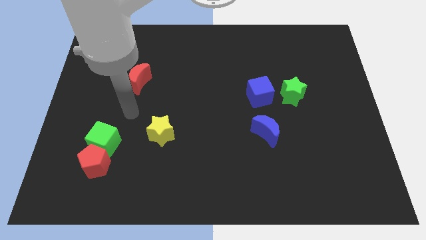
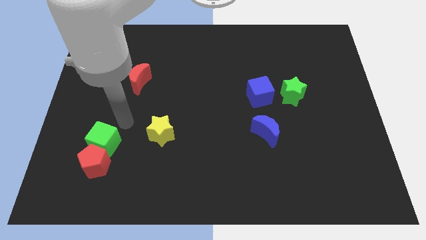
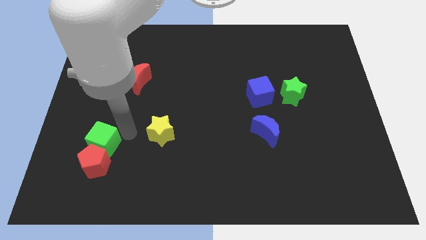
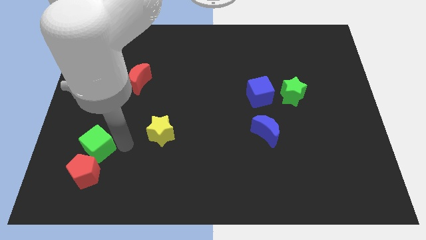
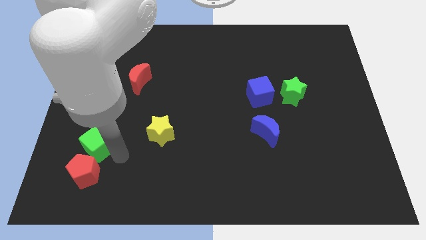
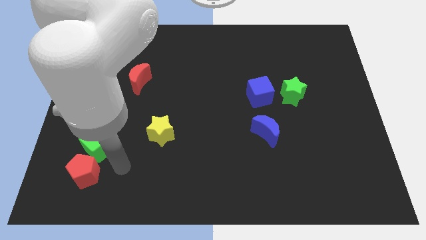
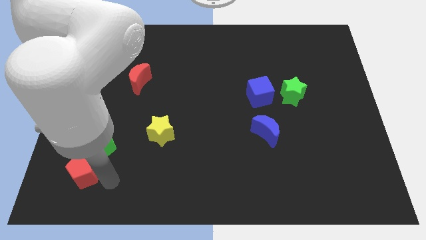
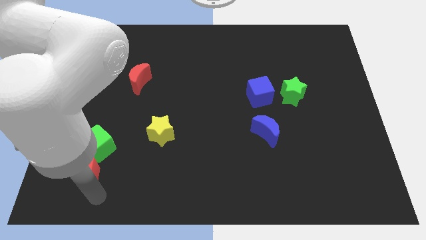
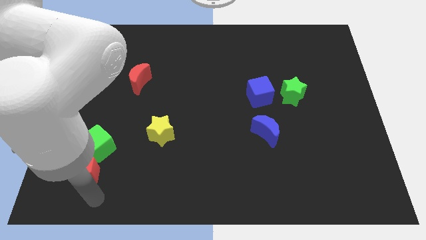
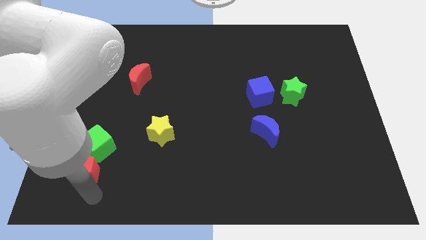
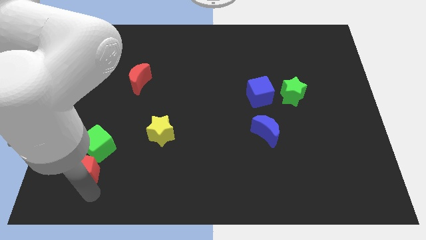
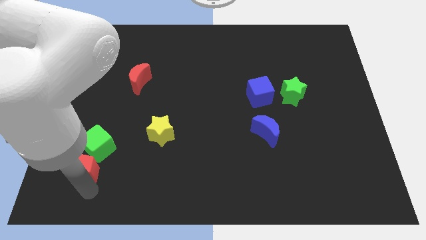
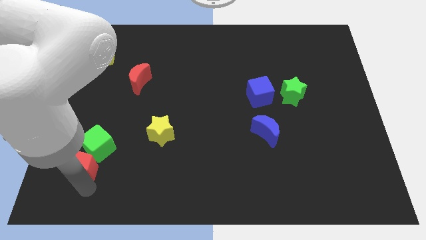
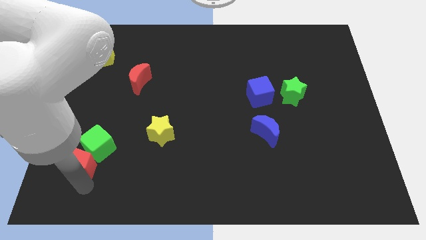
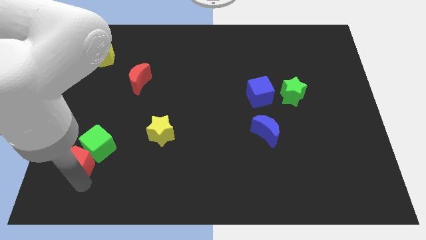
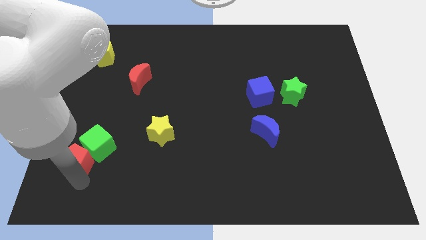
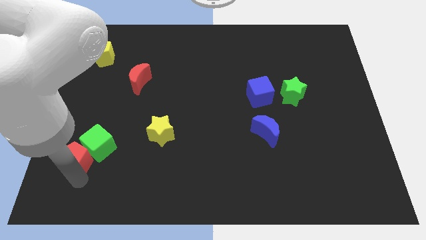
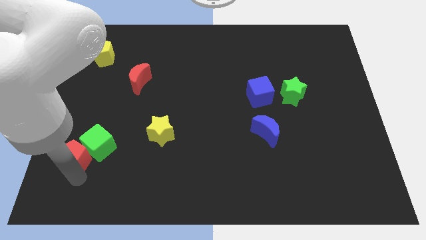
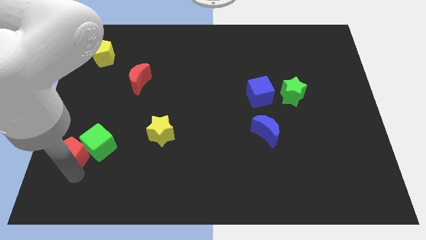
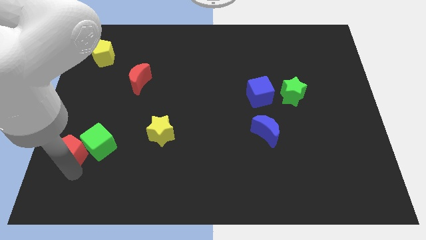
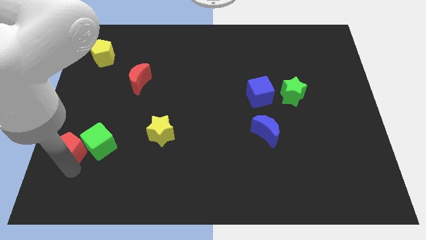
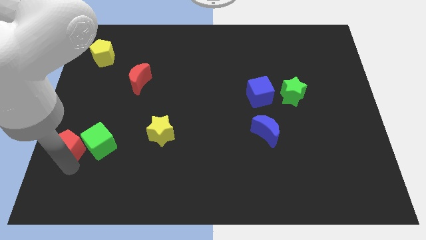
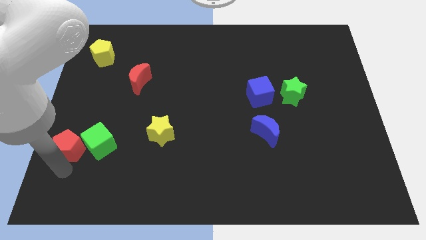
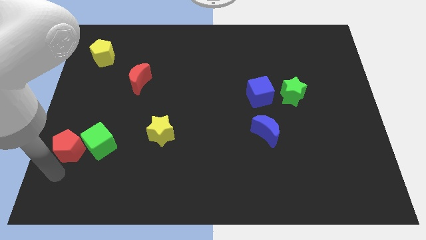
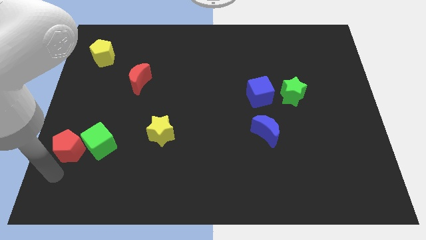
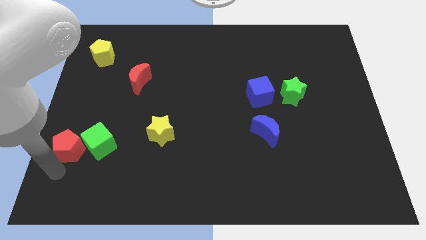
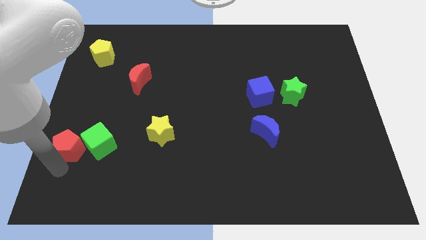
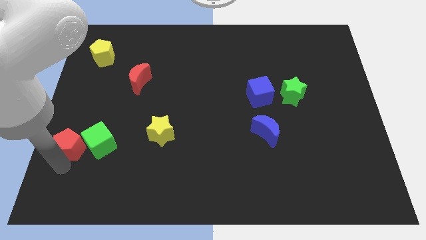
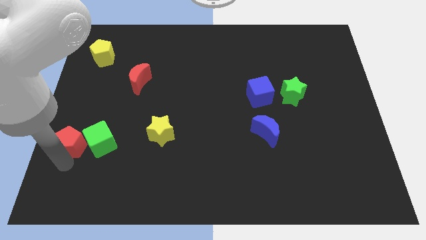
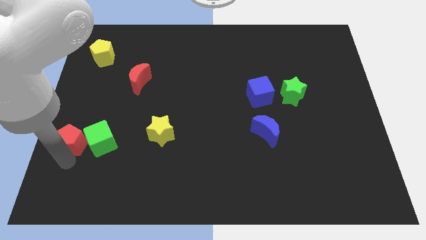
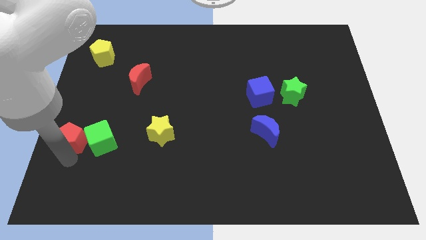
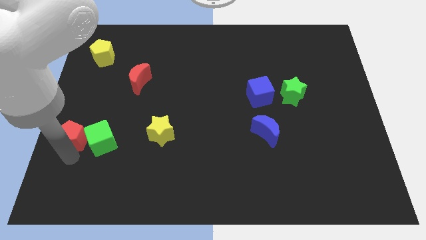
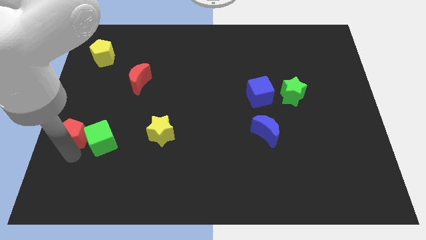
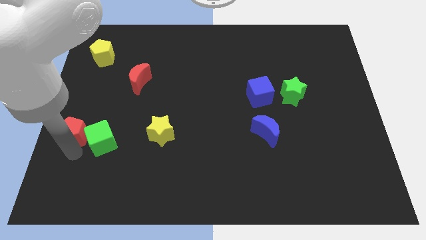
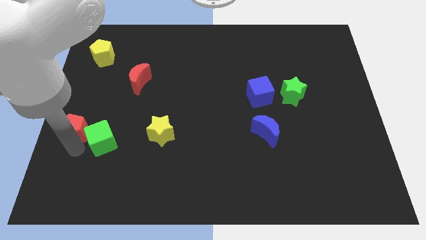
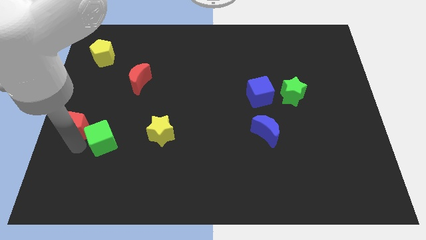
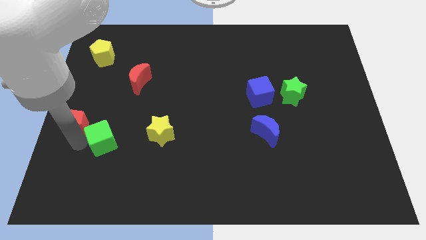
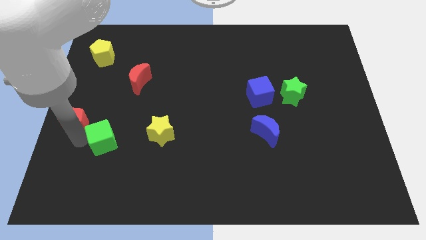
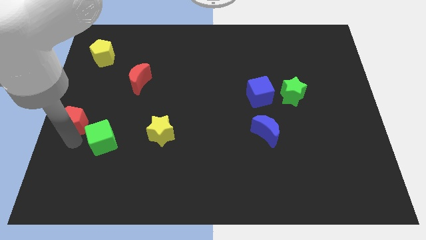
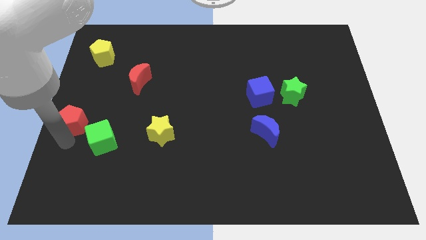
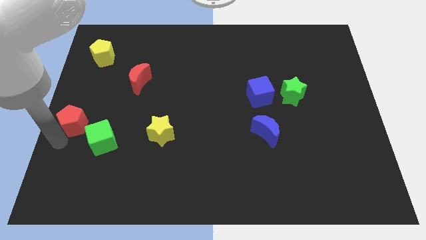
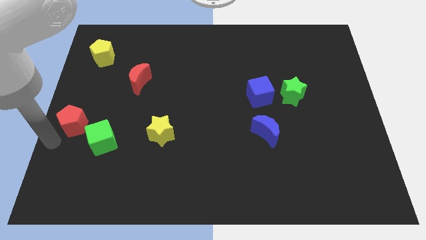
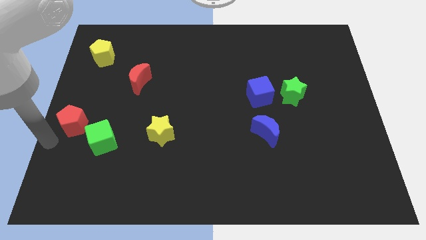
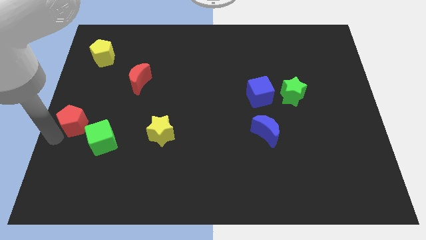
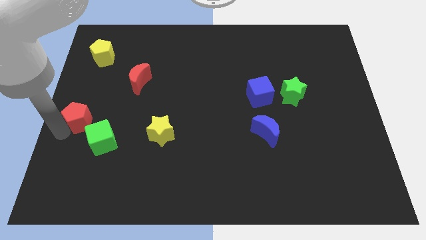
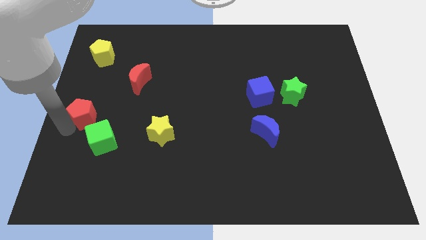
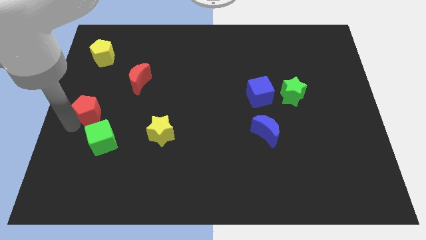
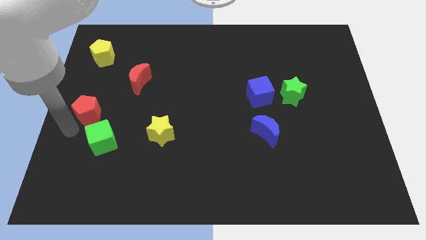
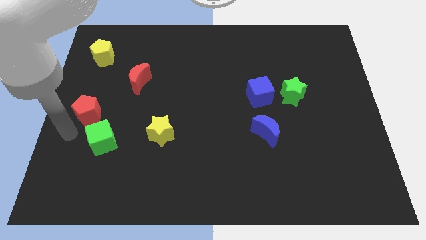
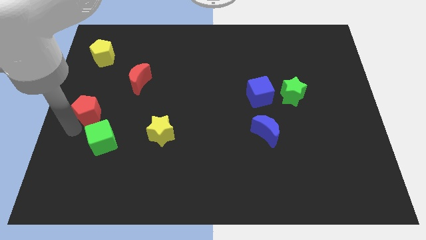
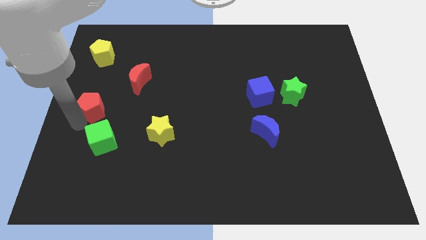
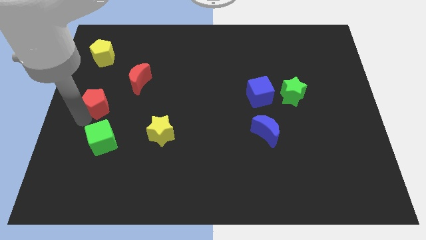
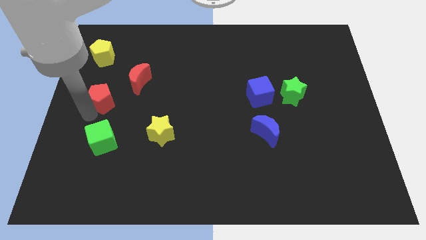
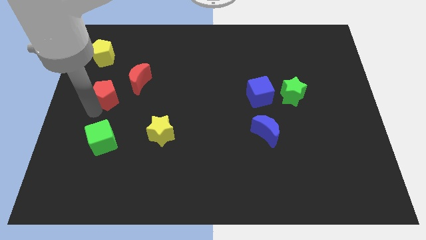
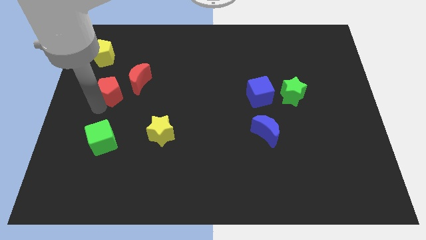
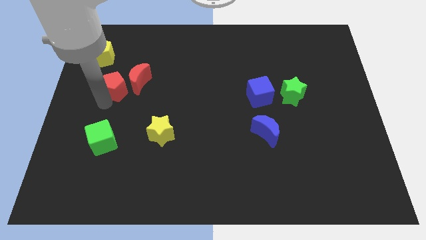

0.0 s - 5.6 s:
move the red pentagon up

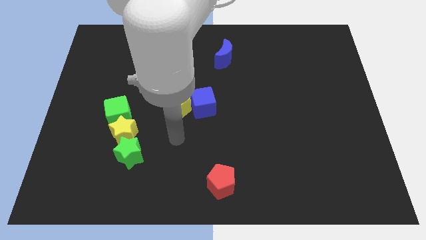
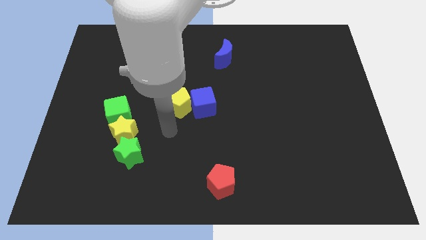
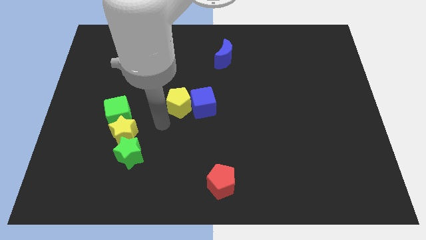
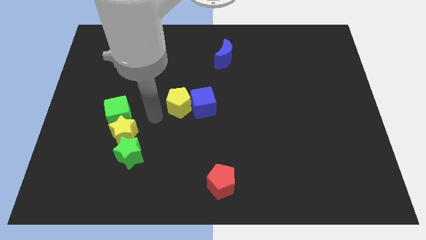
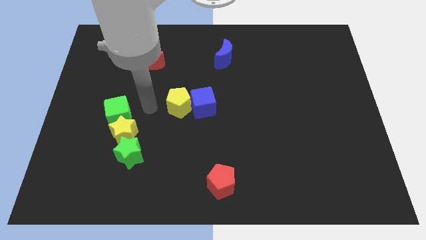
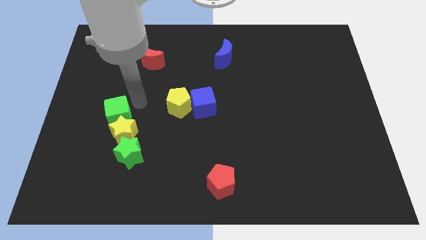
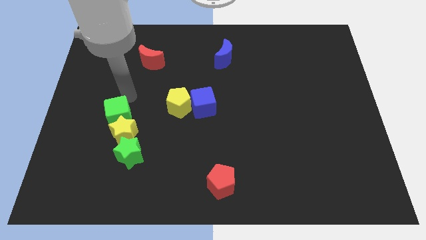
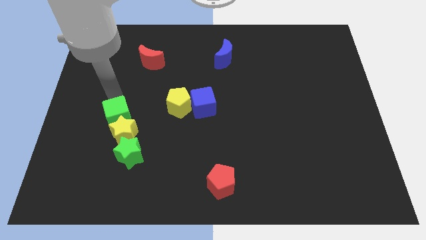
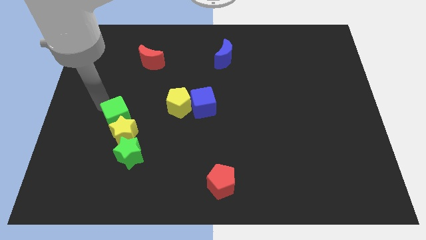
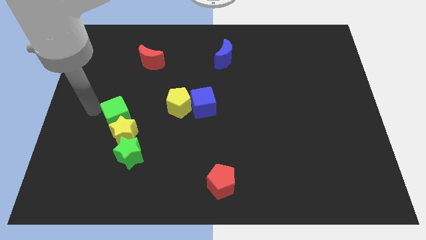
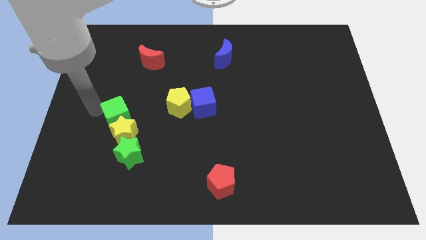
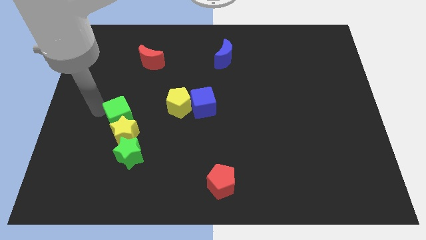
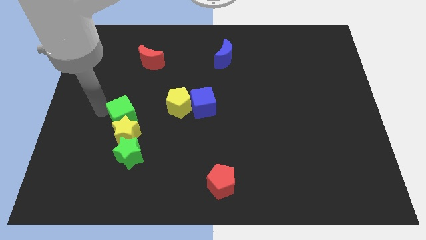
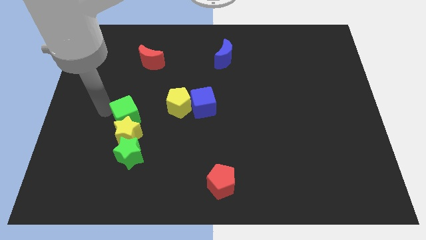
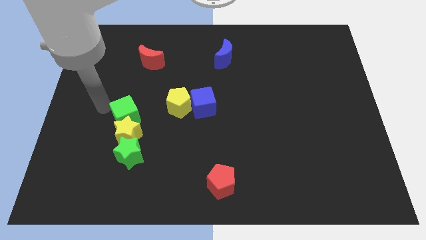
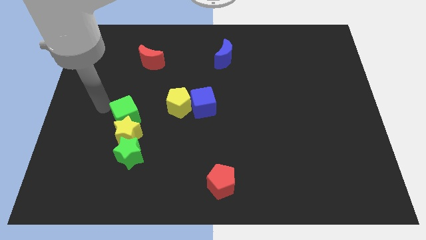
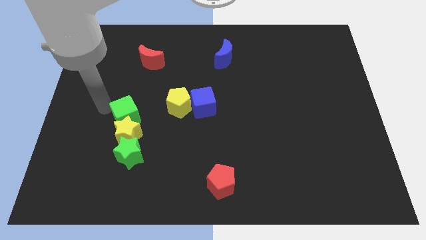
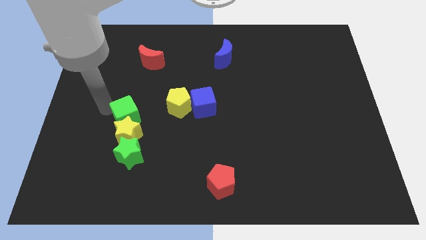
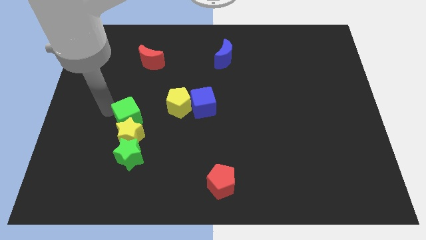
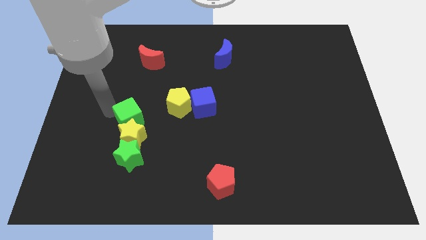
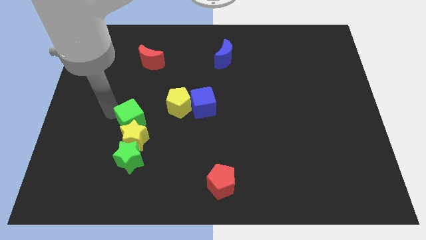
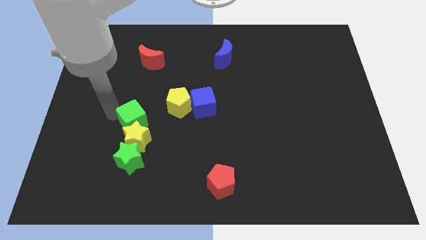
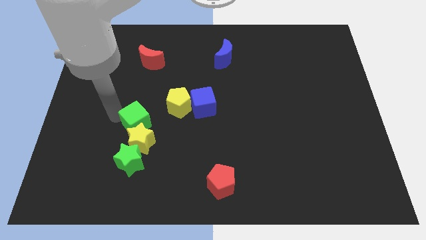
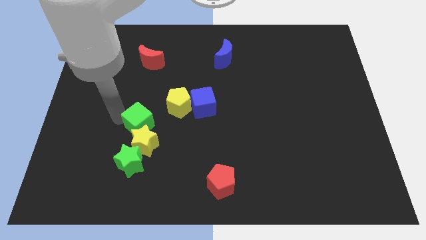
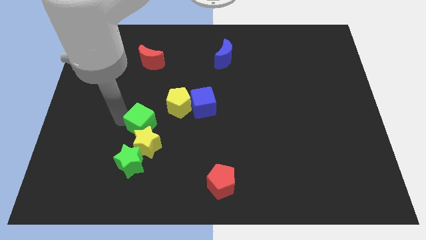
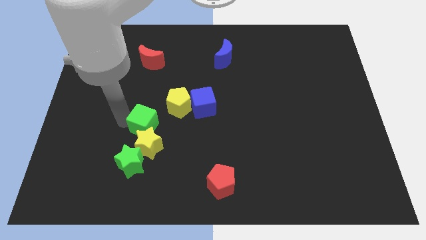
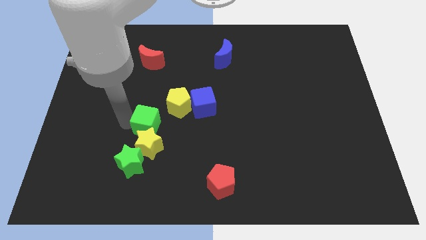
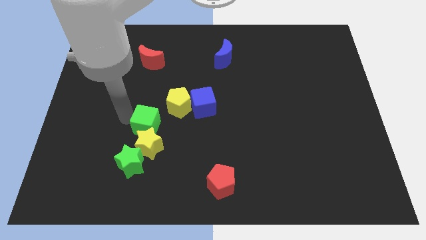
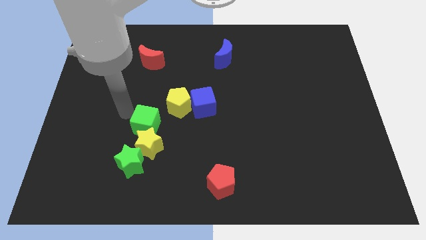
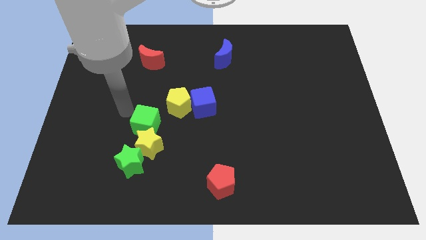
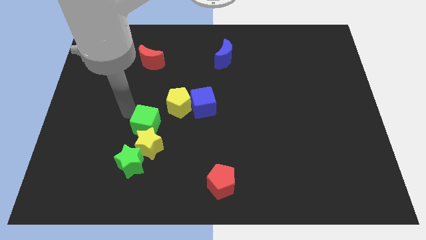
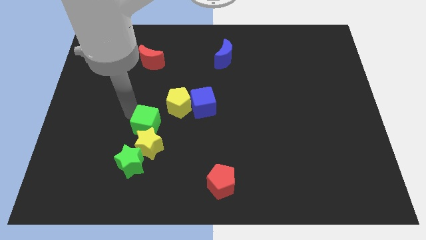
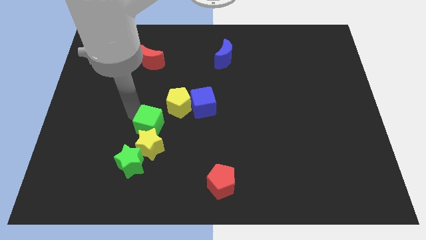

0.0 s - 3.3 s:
slightly push the green cube downwards and to the right diagonally
